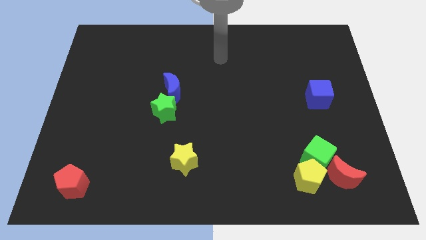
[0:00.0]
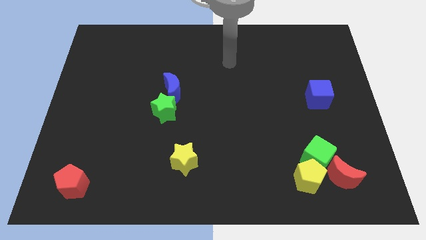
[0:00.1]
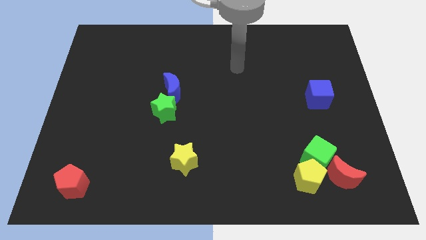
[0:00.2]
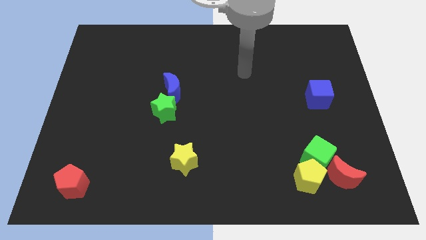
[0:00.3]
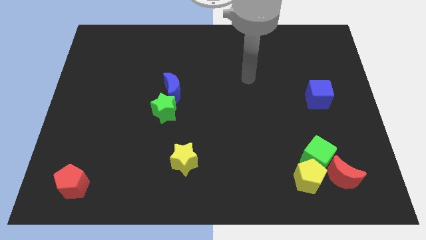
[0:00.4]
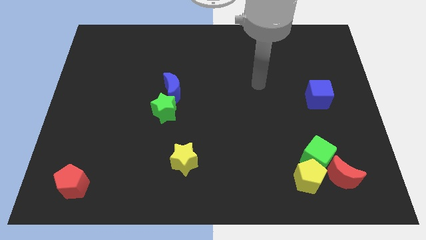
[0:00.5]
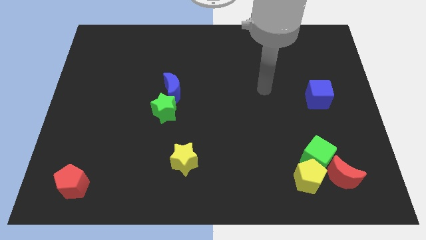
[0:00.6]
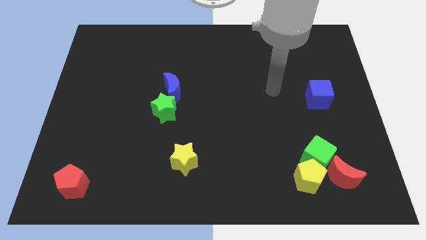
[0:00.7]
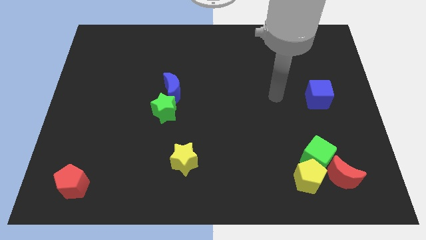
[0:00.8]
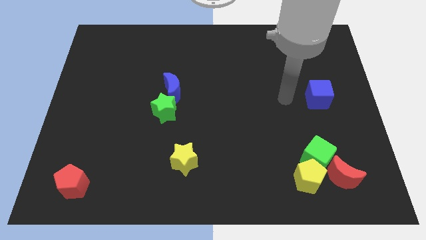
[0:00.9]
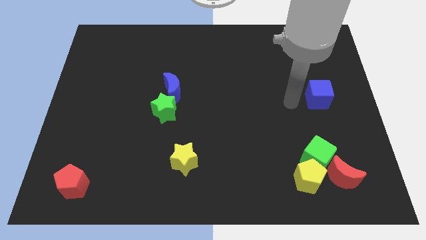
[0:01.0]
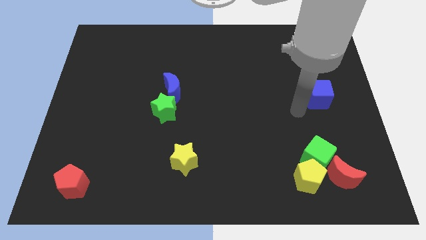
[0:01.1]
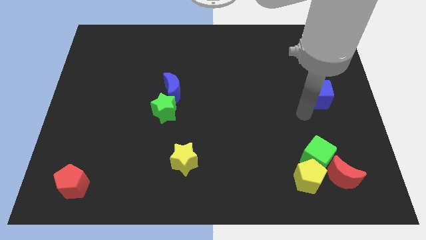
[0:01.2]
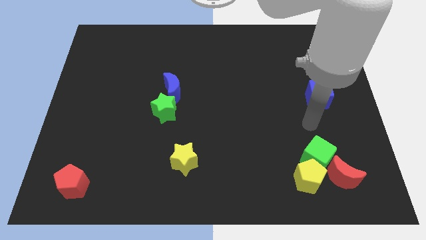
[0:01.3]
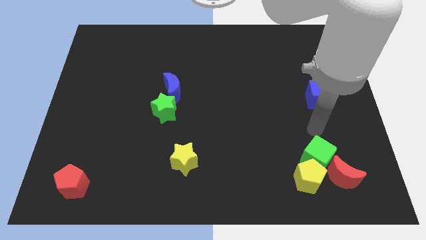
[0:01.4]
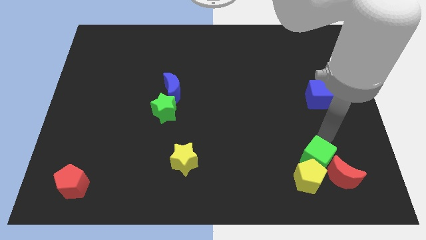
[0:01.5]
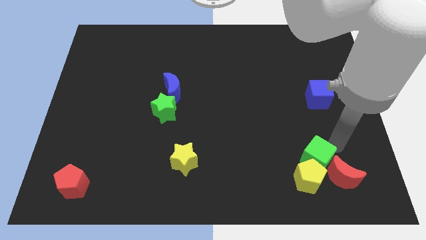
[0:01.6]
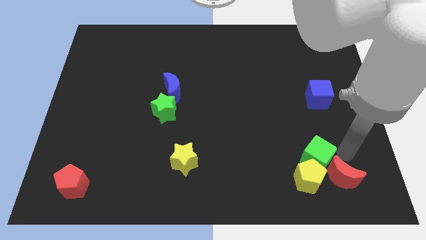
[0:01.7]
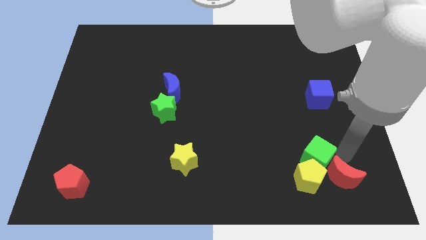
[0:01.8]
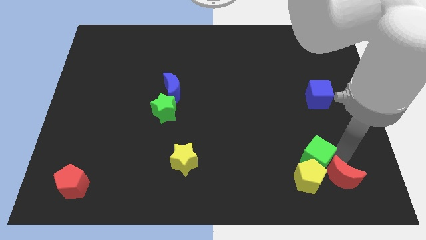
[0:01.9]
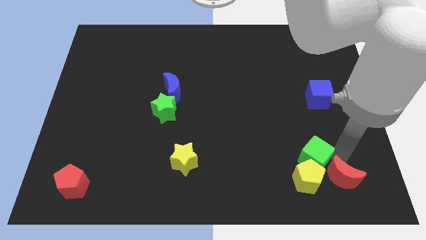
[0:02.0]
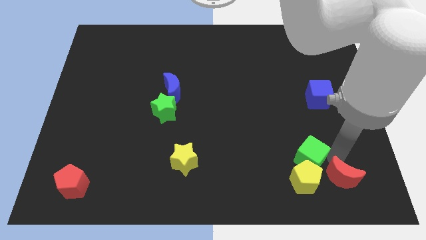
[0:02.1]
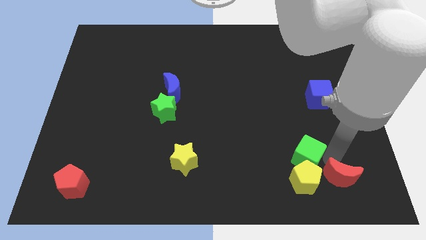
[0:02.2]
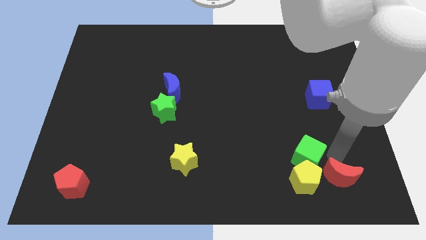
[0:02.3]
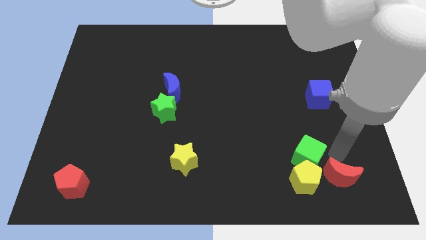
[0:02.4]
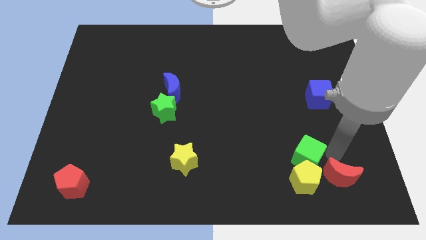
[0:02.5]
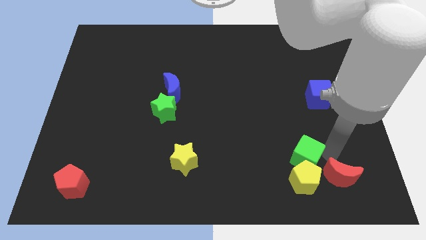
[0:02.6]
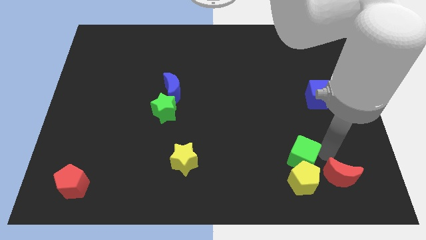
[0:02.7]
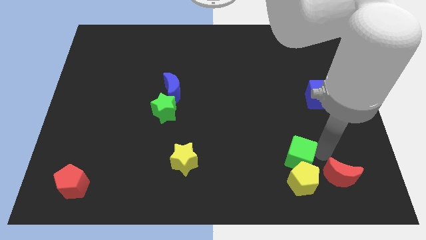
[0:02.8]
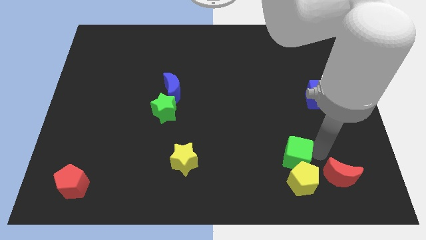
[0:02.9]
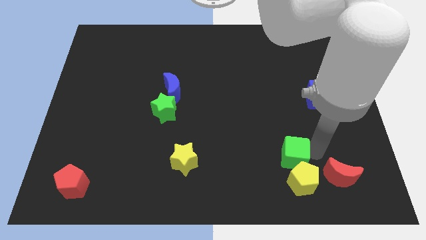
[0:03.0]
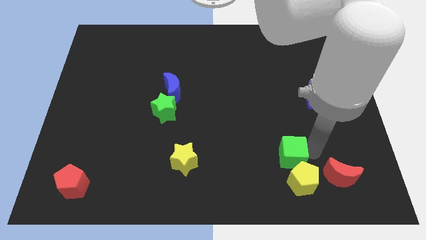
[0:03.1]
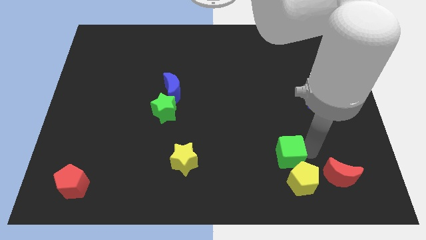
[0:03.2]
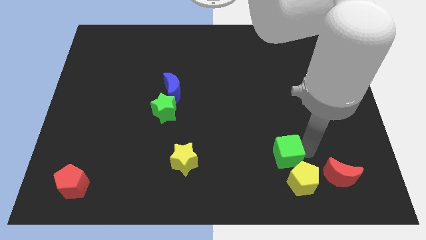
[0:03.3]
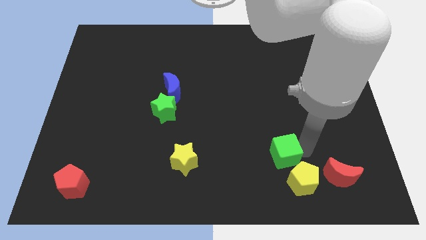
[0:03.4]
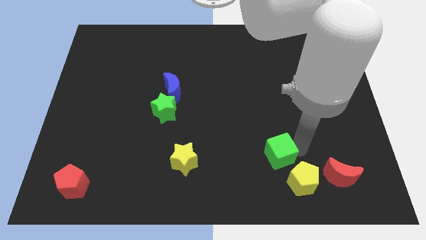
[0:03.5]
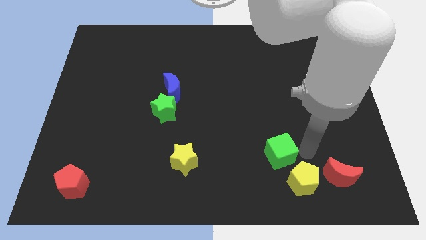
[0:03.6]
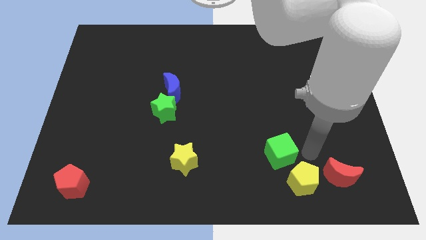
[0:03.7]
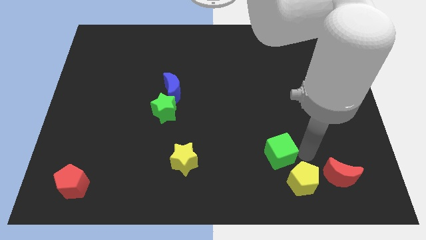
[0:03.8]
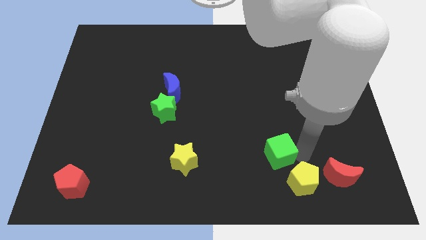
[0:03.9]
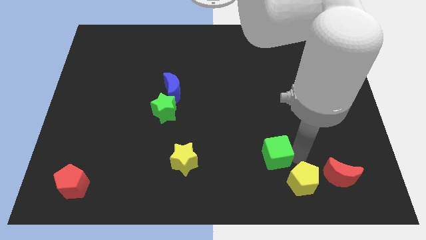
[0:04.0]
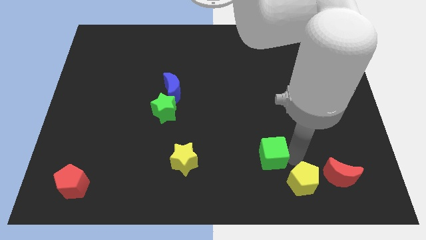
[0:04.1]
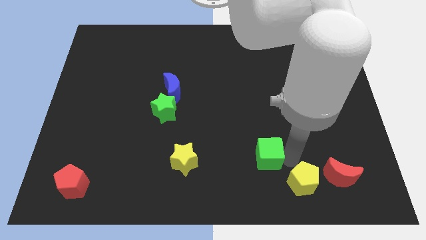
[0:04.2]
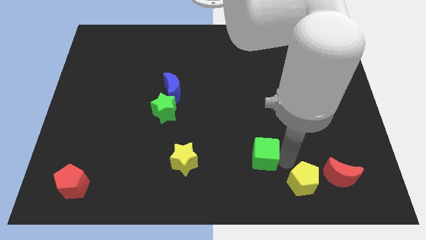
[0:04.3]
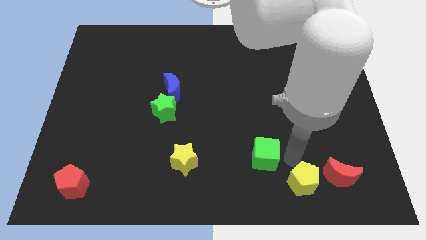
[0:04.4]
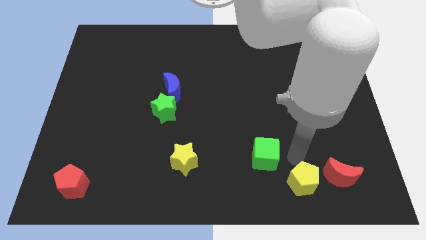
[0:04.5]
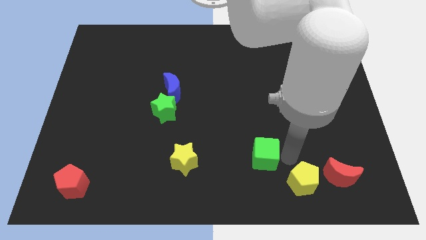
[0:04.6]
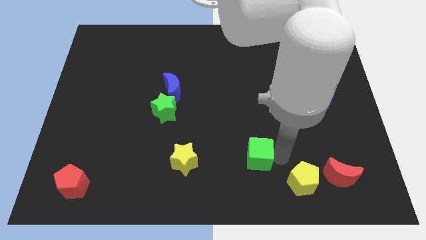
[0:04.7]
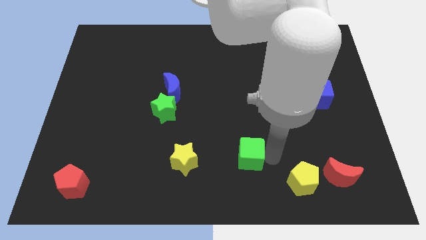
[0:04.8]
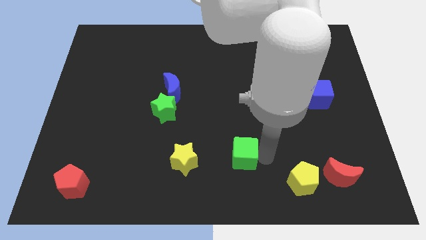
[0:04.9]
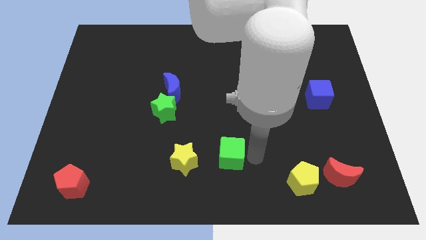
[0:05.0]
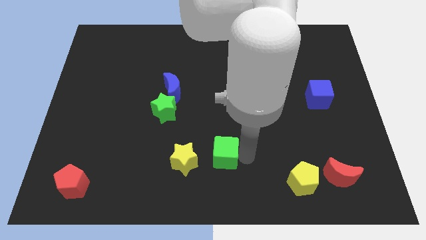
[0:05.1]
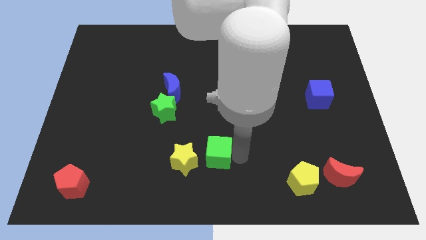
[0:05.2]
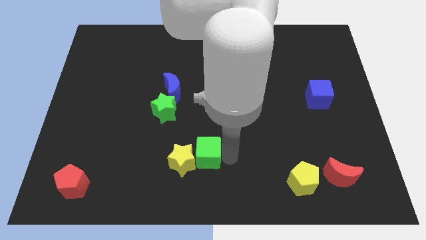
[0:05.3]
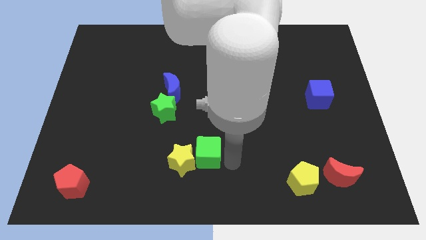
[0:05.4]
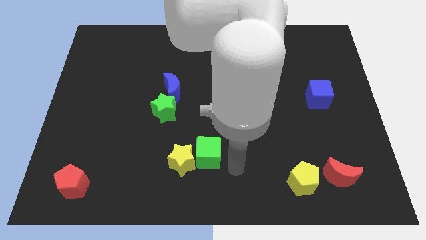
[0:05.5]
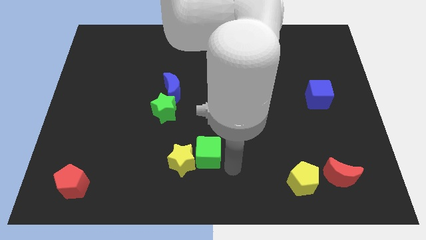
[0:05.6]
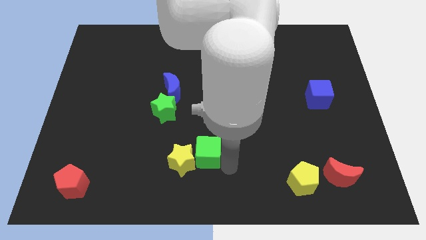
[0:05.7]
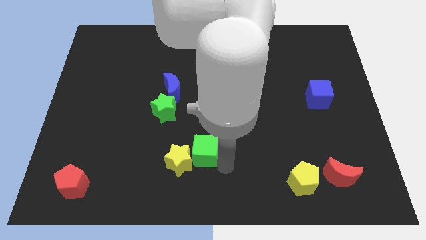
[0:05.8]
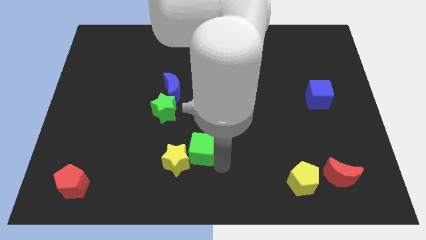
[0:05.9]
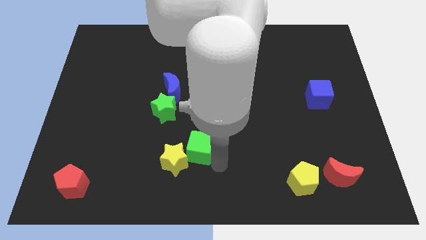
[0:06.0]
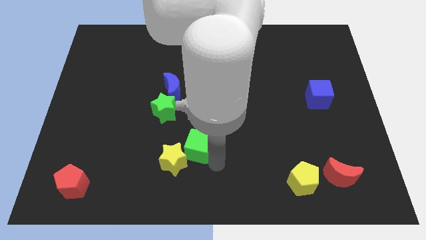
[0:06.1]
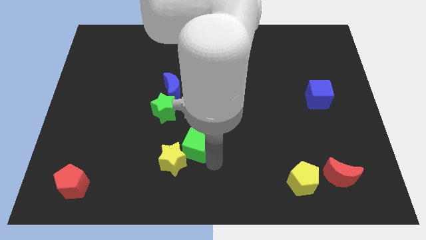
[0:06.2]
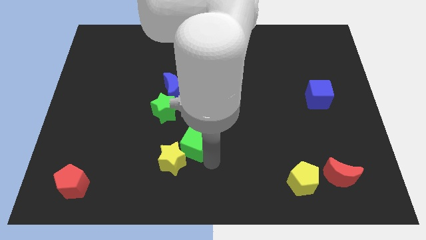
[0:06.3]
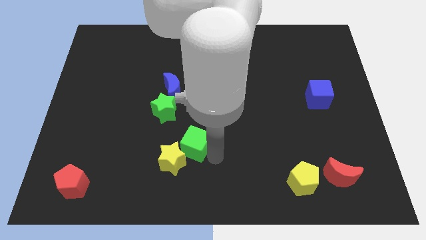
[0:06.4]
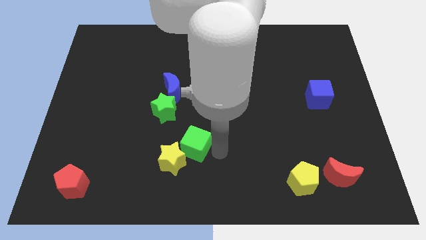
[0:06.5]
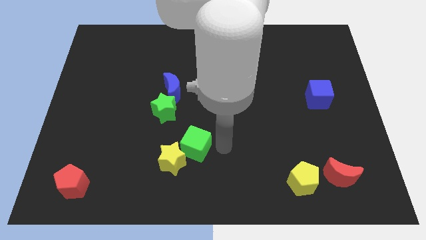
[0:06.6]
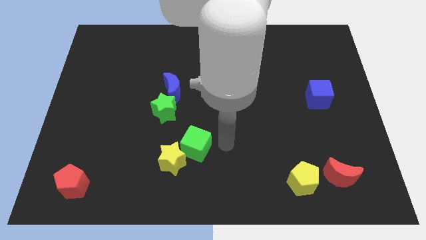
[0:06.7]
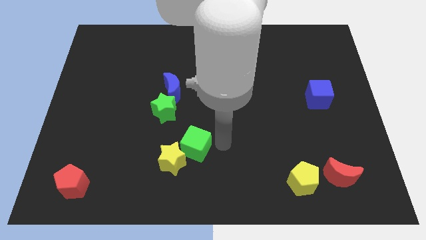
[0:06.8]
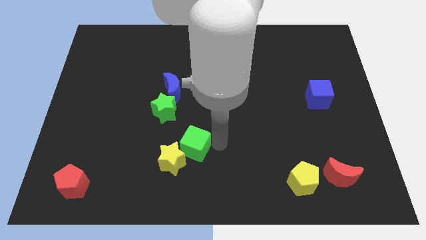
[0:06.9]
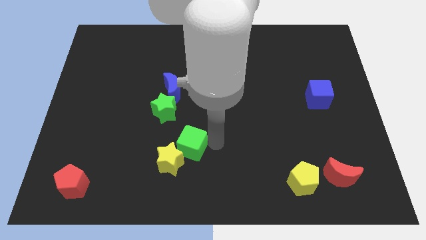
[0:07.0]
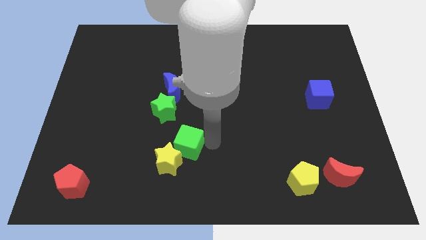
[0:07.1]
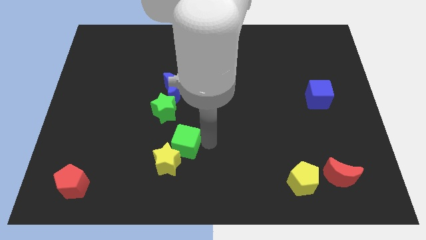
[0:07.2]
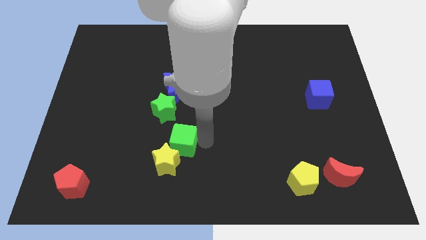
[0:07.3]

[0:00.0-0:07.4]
move the green cube below the green star
